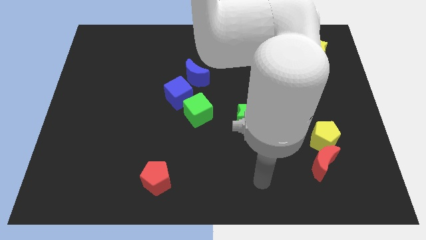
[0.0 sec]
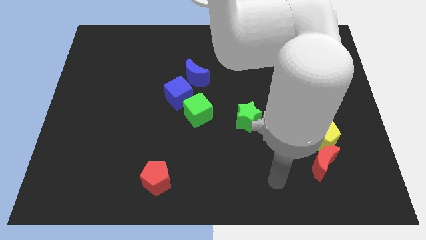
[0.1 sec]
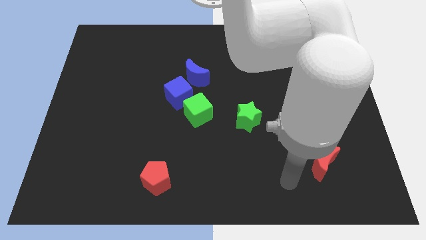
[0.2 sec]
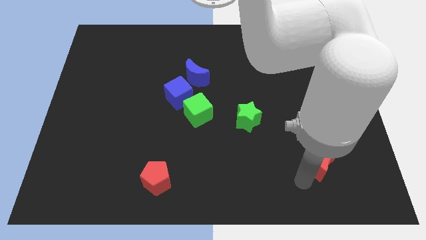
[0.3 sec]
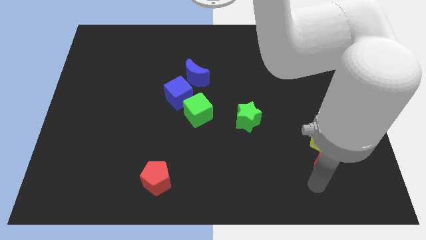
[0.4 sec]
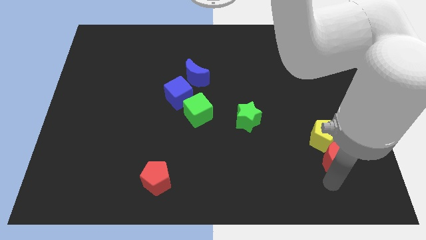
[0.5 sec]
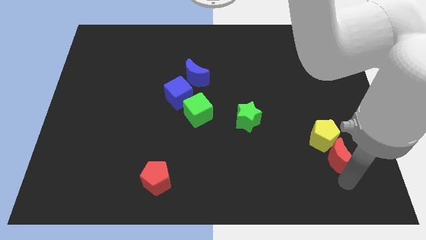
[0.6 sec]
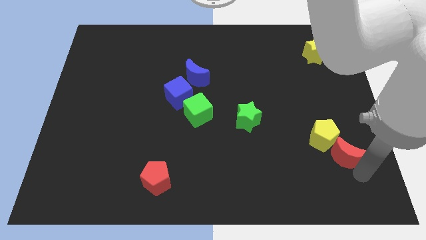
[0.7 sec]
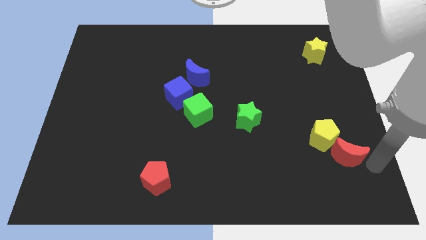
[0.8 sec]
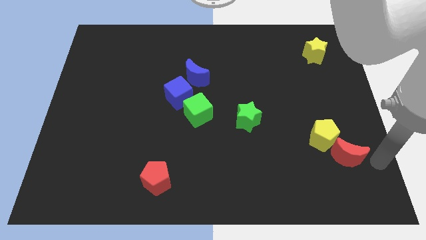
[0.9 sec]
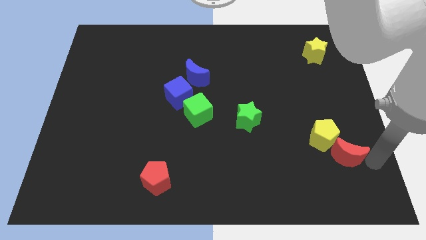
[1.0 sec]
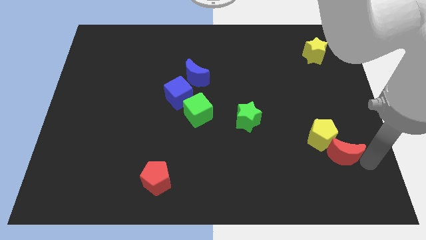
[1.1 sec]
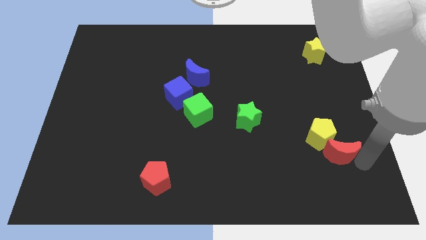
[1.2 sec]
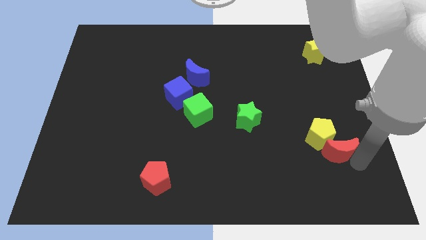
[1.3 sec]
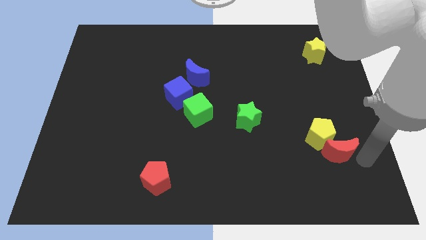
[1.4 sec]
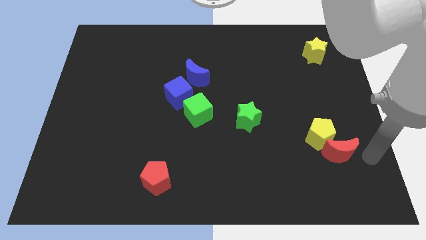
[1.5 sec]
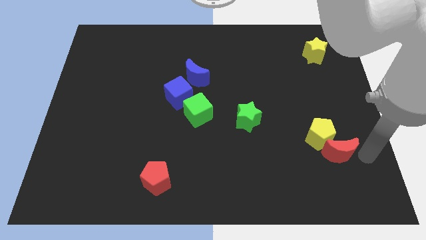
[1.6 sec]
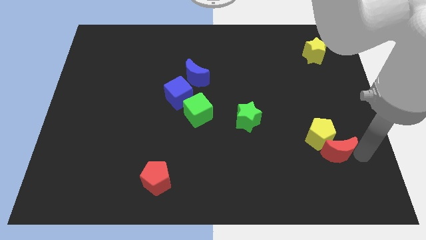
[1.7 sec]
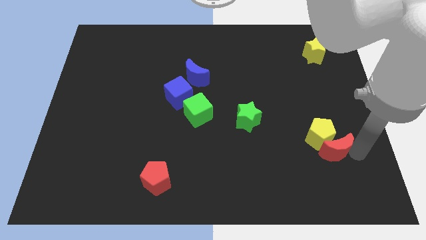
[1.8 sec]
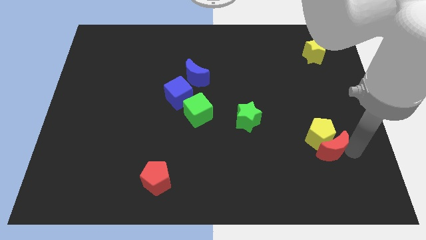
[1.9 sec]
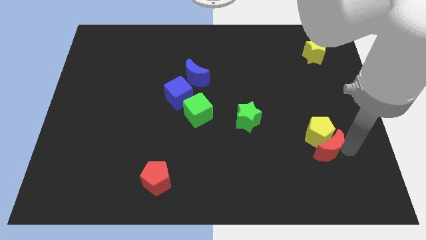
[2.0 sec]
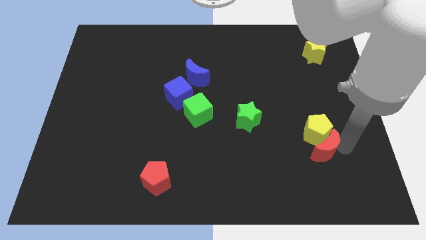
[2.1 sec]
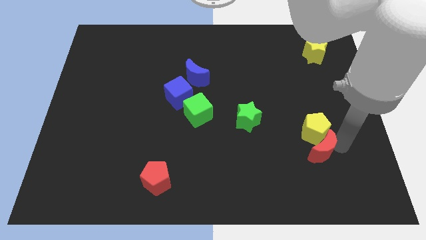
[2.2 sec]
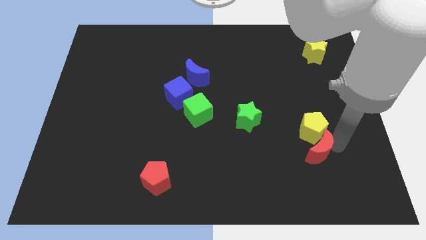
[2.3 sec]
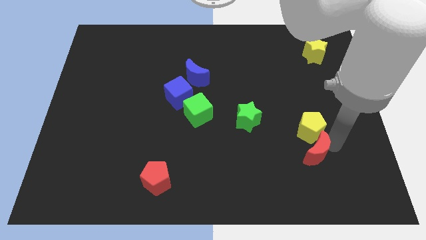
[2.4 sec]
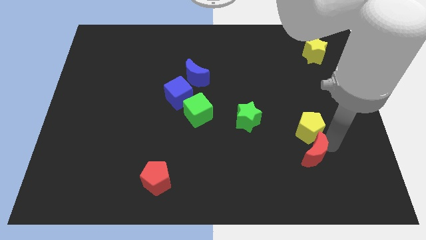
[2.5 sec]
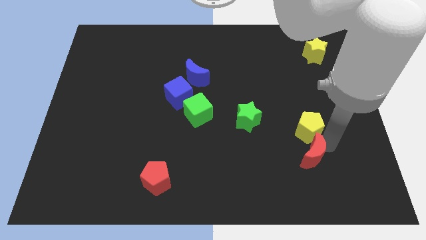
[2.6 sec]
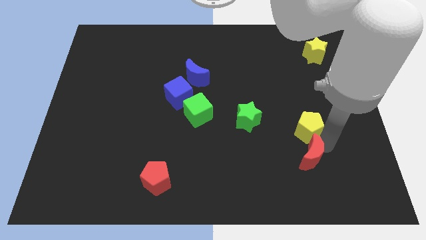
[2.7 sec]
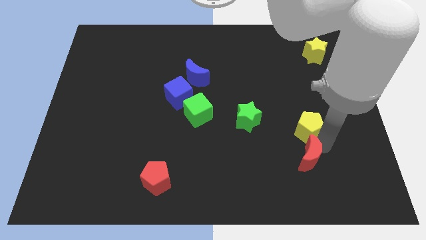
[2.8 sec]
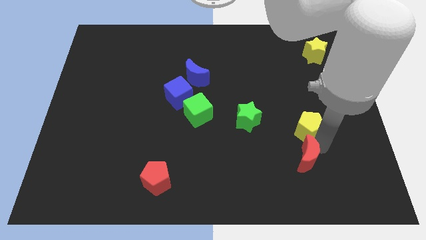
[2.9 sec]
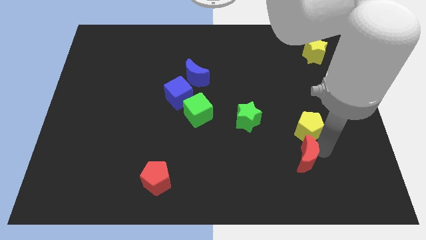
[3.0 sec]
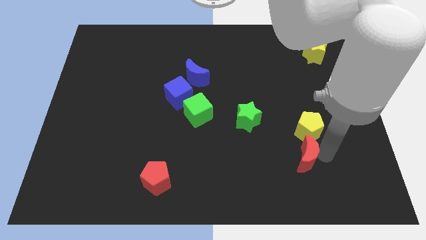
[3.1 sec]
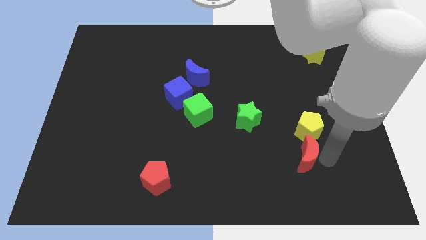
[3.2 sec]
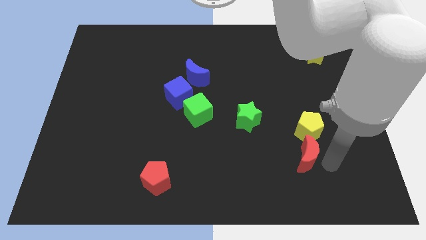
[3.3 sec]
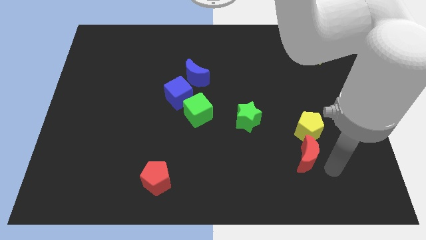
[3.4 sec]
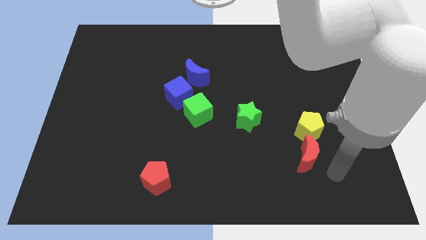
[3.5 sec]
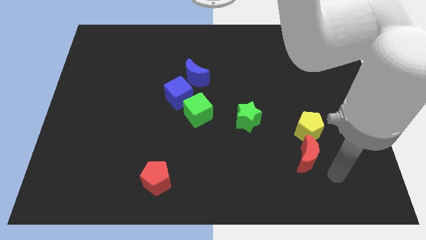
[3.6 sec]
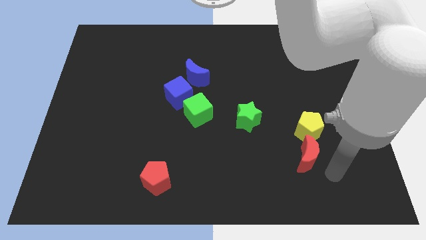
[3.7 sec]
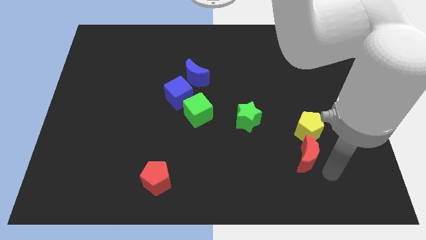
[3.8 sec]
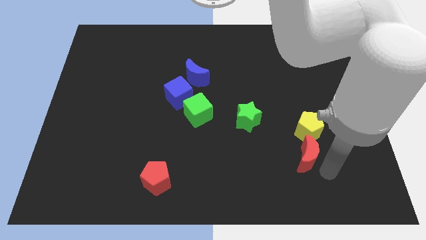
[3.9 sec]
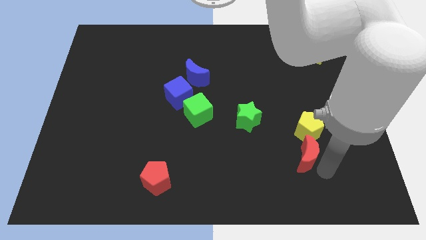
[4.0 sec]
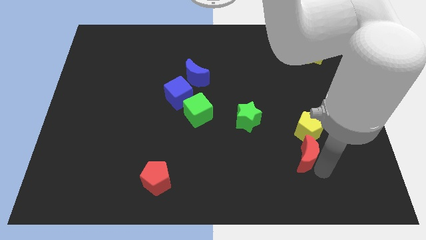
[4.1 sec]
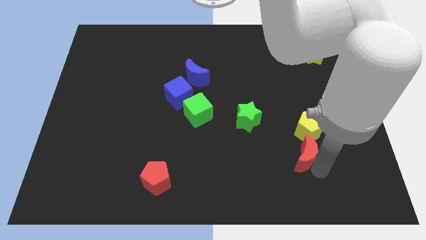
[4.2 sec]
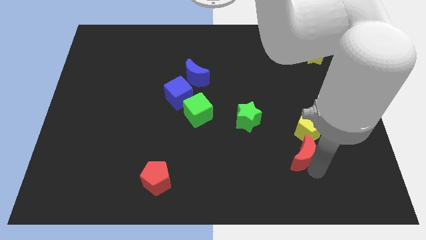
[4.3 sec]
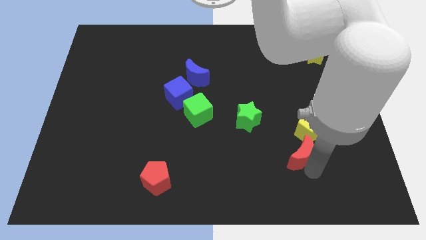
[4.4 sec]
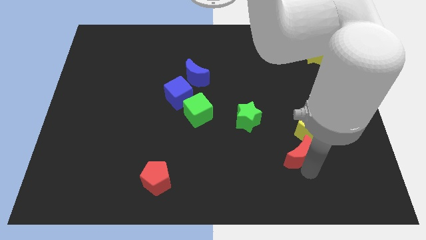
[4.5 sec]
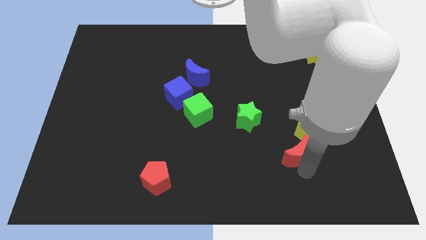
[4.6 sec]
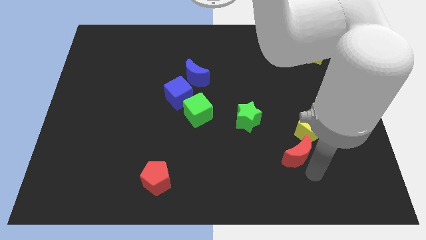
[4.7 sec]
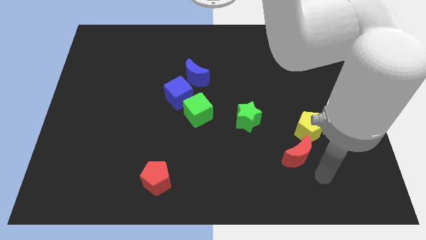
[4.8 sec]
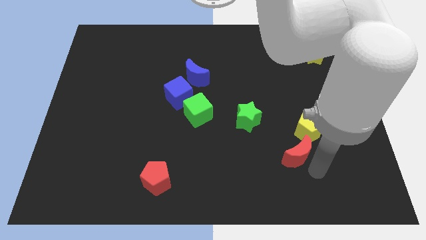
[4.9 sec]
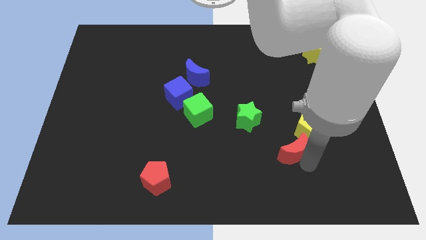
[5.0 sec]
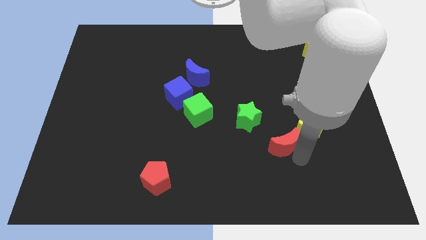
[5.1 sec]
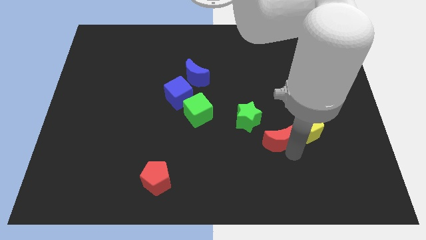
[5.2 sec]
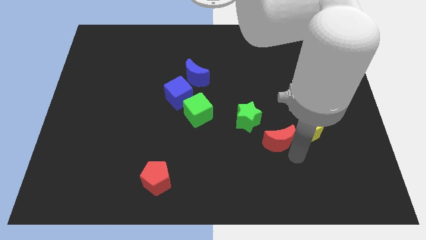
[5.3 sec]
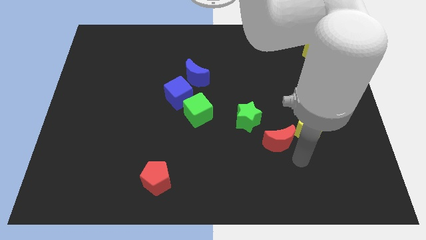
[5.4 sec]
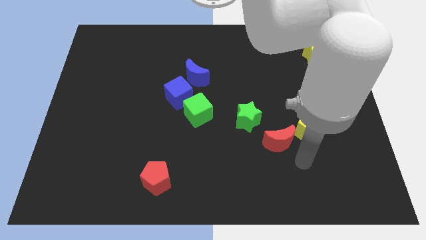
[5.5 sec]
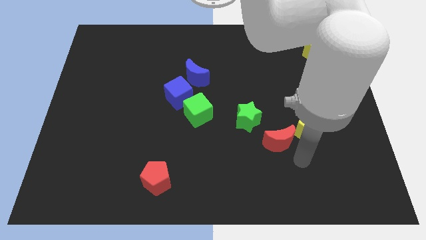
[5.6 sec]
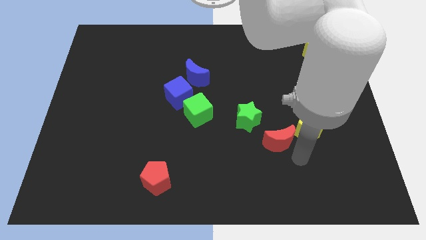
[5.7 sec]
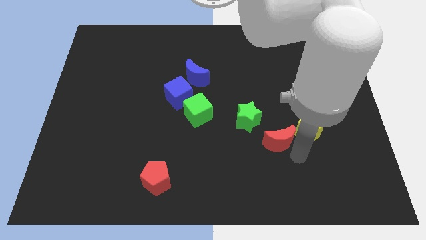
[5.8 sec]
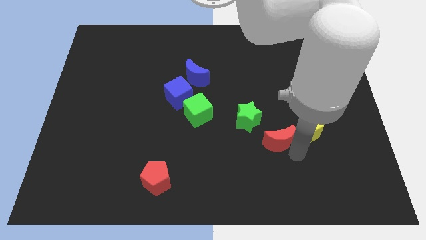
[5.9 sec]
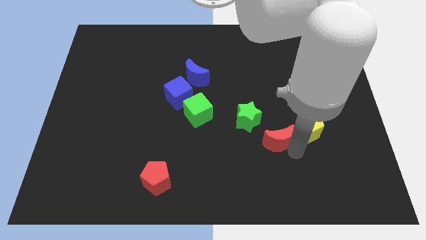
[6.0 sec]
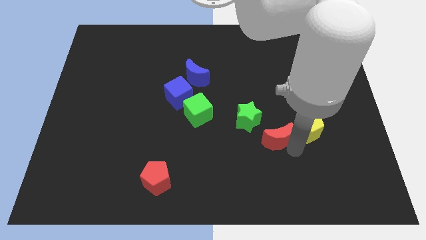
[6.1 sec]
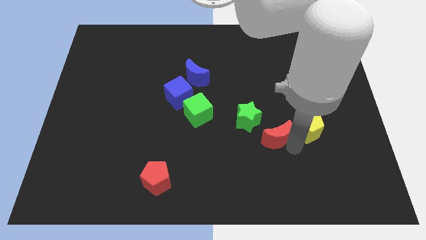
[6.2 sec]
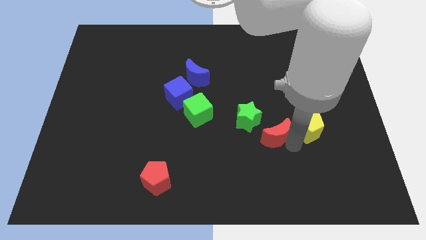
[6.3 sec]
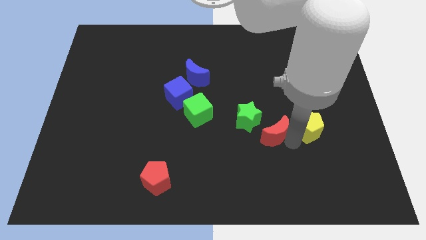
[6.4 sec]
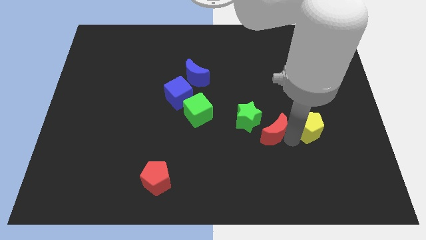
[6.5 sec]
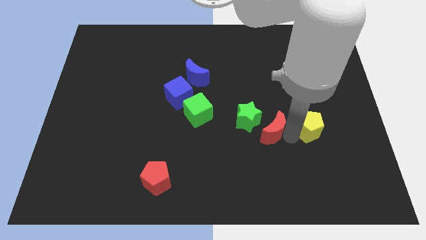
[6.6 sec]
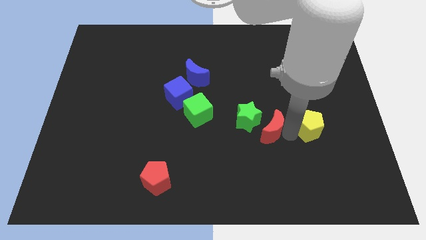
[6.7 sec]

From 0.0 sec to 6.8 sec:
push the red moon close to the green star
